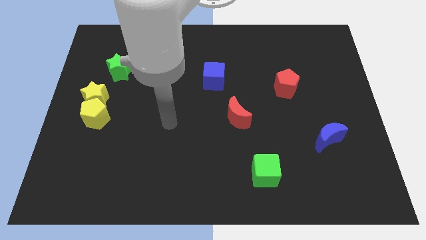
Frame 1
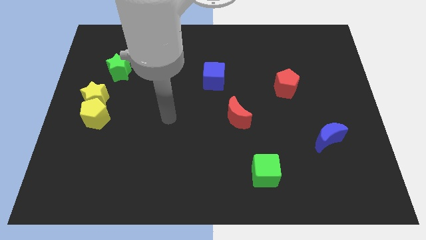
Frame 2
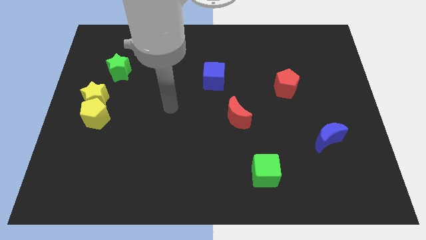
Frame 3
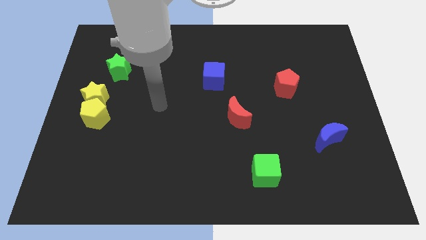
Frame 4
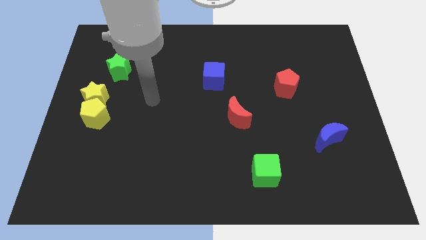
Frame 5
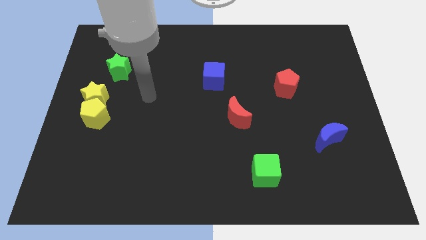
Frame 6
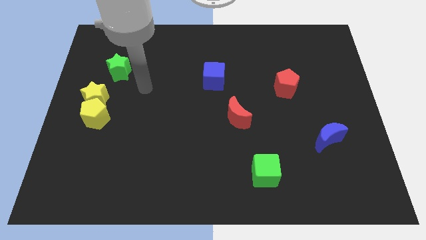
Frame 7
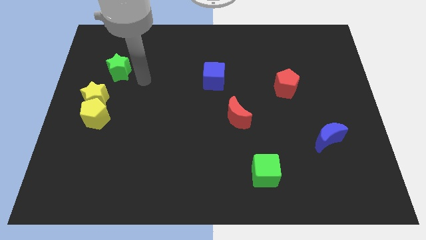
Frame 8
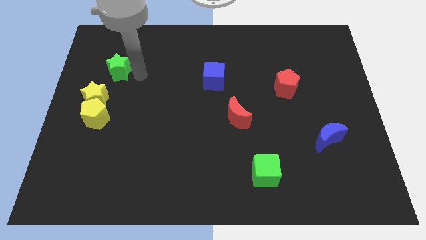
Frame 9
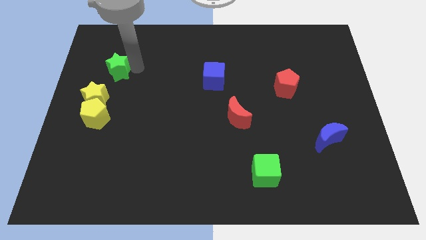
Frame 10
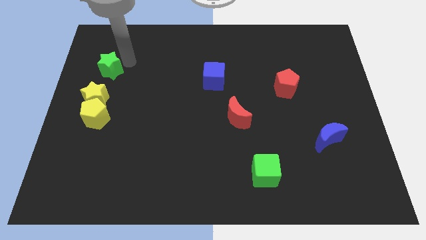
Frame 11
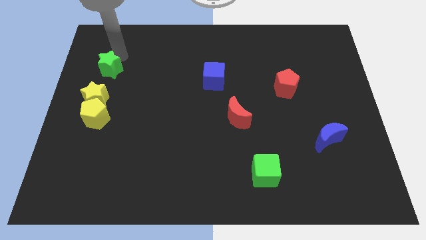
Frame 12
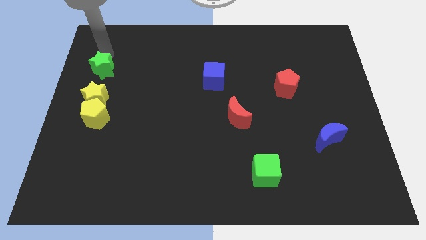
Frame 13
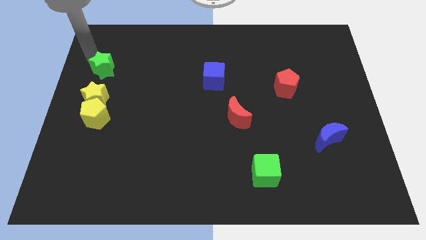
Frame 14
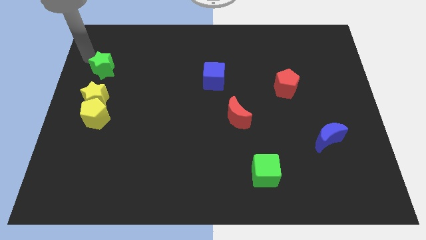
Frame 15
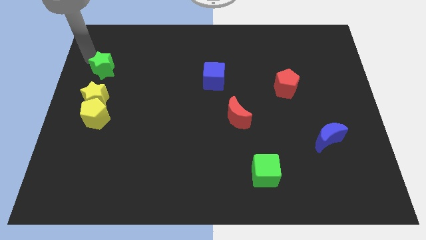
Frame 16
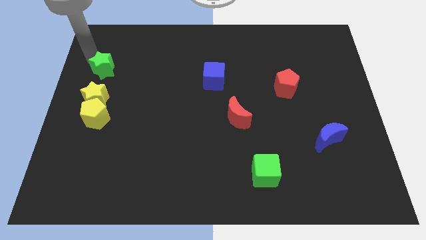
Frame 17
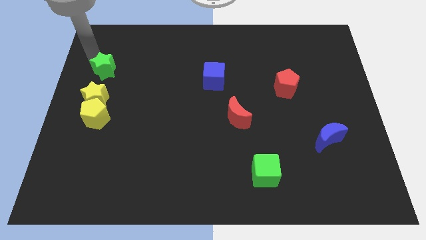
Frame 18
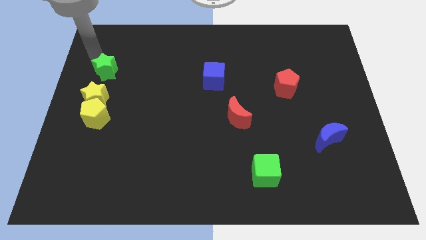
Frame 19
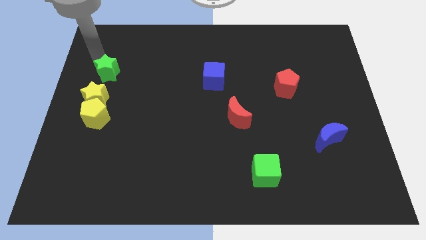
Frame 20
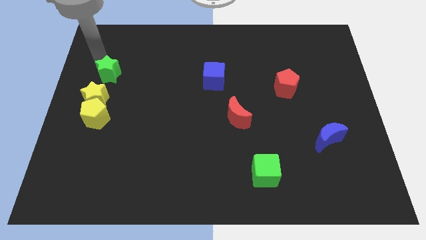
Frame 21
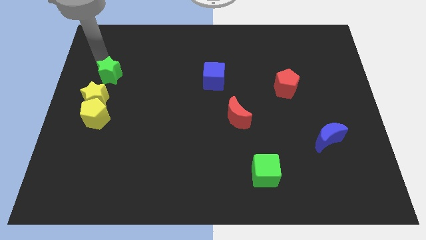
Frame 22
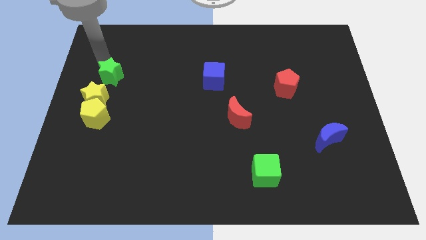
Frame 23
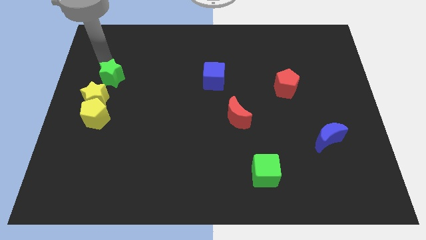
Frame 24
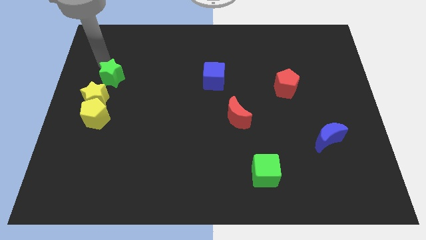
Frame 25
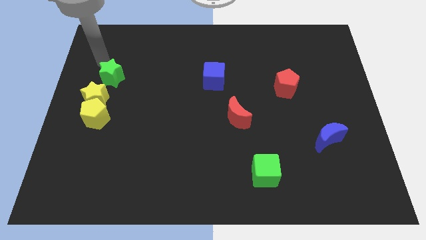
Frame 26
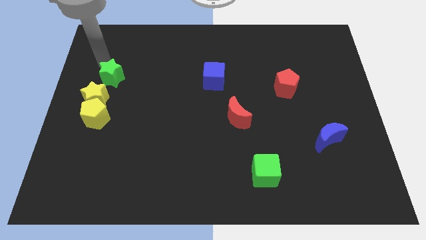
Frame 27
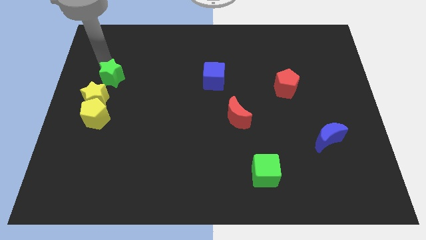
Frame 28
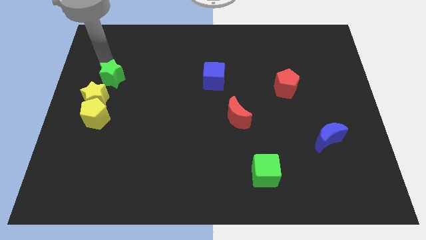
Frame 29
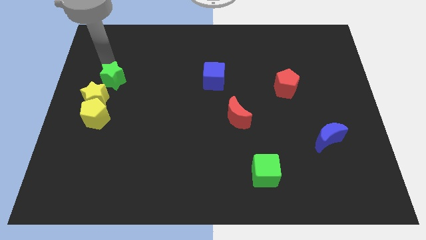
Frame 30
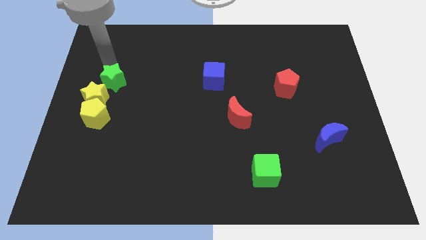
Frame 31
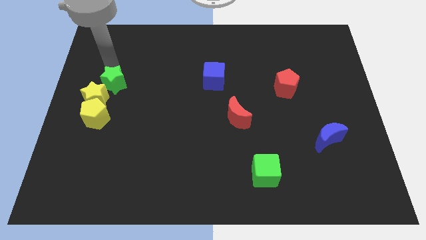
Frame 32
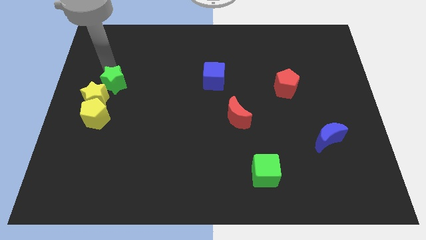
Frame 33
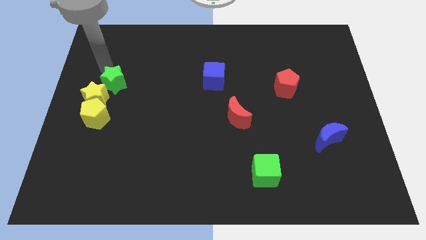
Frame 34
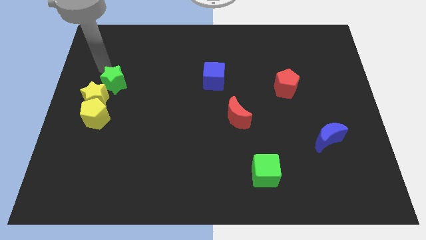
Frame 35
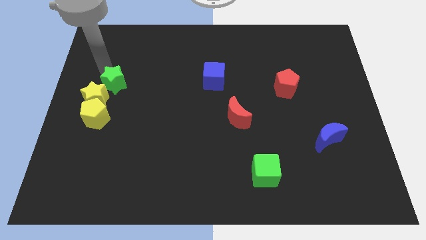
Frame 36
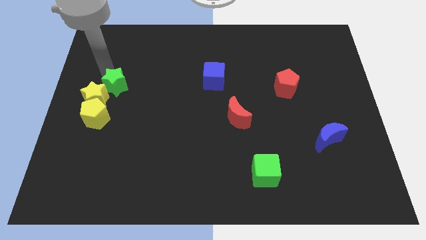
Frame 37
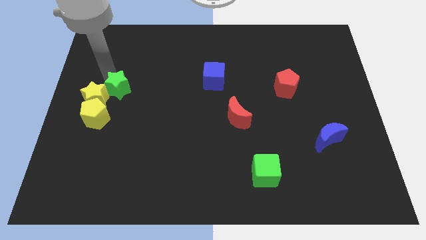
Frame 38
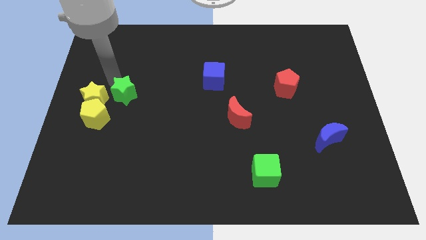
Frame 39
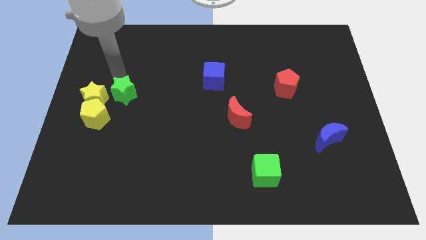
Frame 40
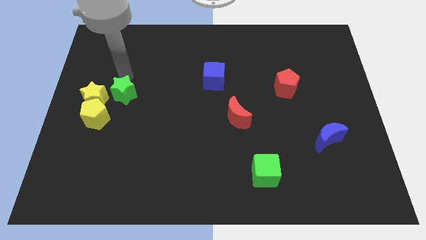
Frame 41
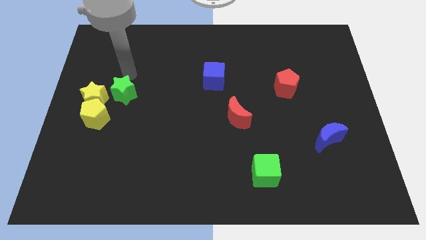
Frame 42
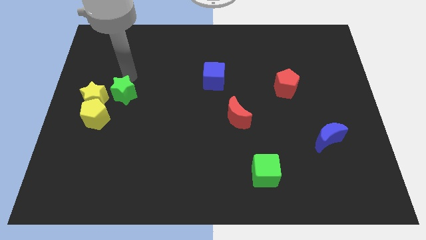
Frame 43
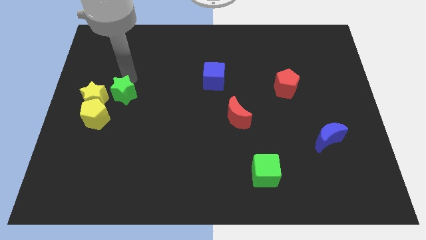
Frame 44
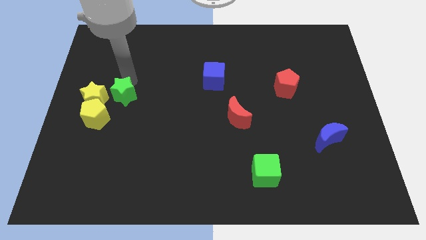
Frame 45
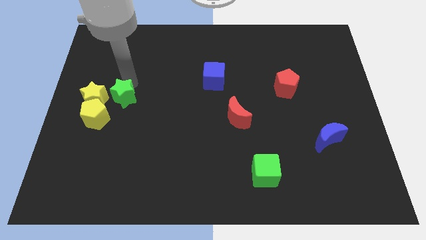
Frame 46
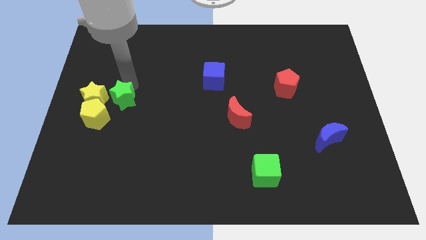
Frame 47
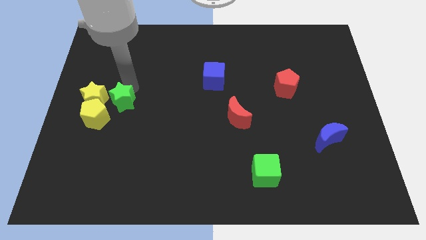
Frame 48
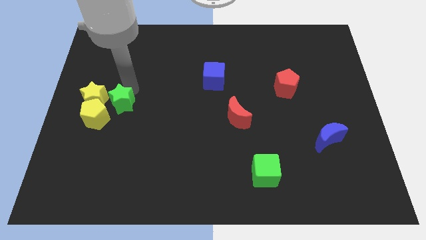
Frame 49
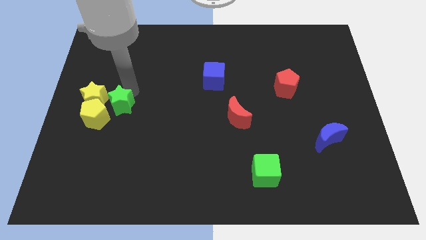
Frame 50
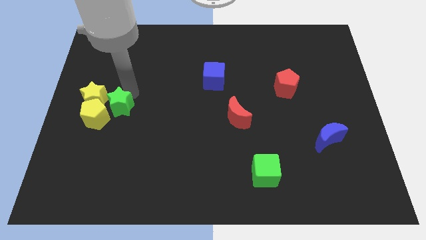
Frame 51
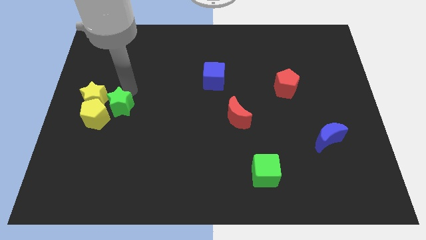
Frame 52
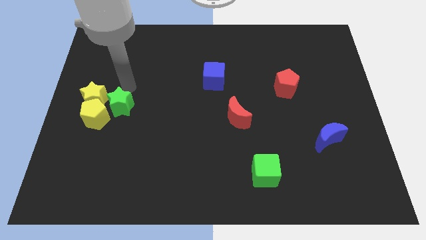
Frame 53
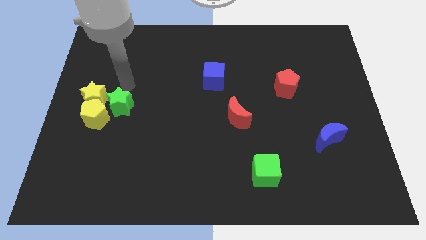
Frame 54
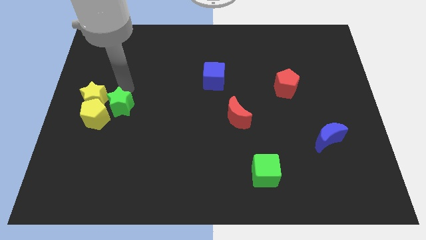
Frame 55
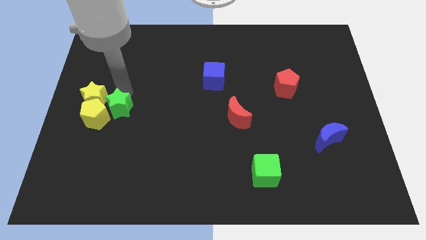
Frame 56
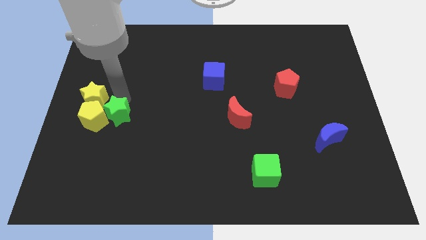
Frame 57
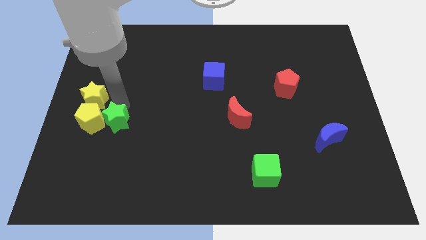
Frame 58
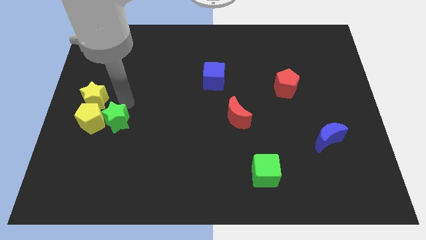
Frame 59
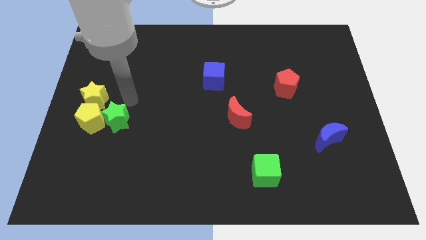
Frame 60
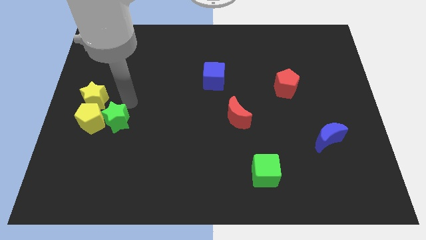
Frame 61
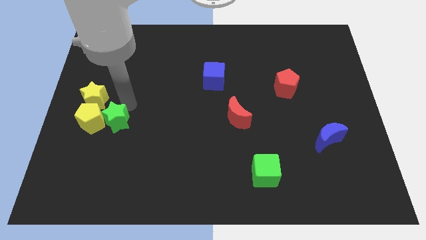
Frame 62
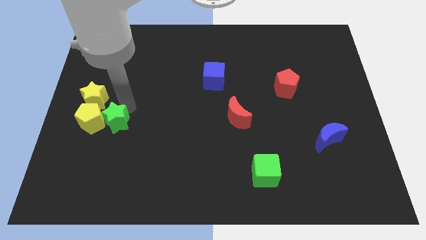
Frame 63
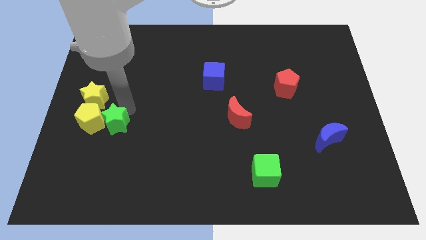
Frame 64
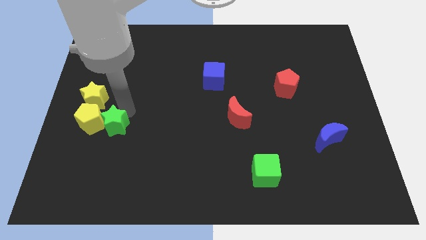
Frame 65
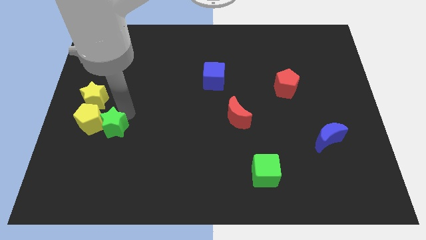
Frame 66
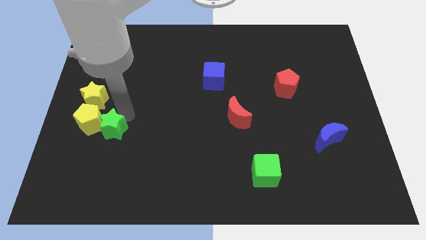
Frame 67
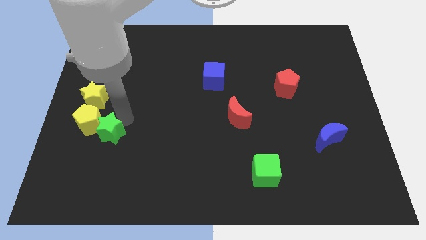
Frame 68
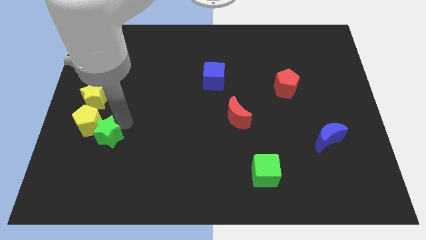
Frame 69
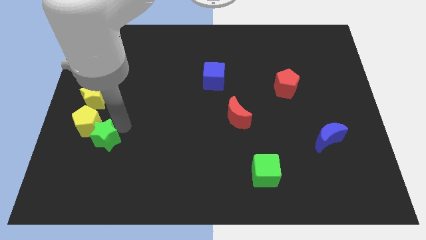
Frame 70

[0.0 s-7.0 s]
slide the green star to the bottom of the yellow pentagon
